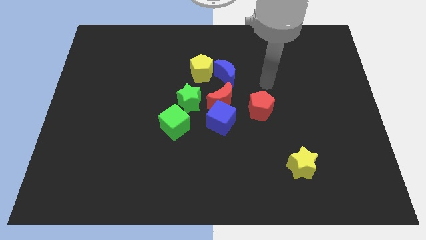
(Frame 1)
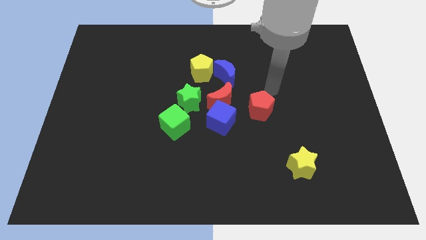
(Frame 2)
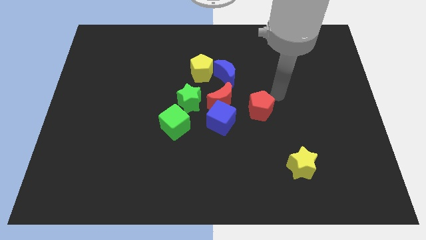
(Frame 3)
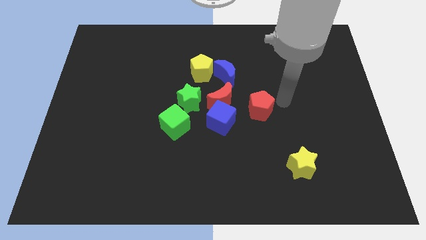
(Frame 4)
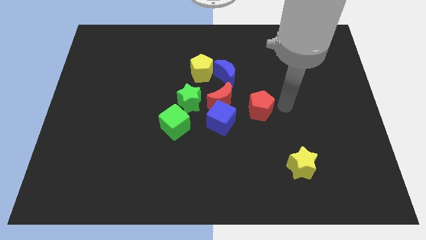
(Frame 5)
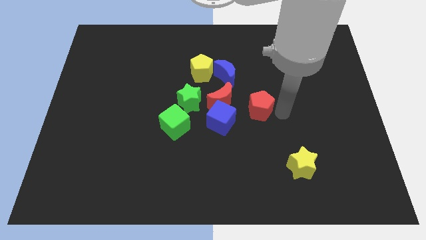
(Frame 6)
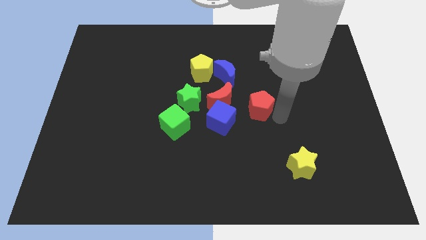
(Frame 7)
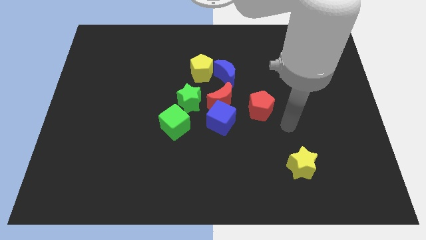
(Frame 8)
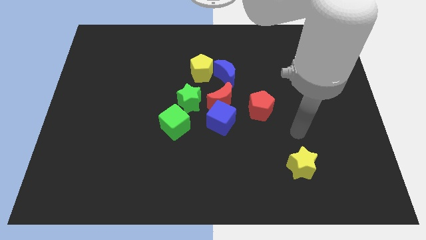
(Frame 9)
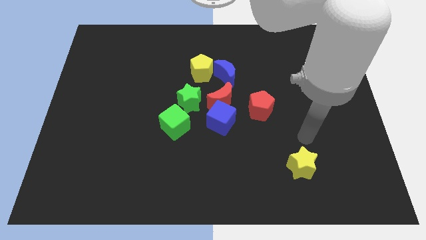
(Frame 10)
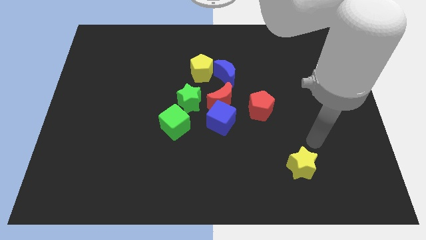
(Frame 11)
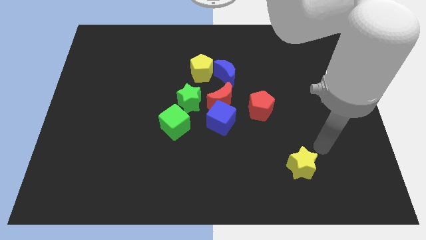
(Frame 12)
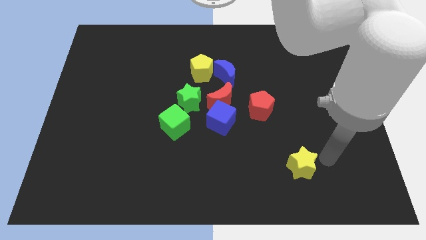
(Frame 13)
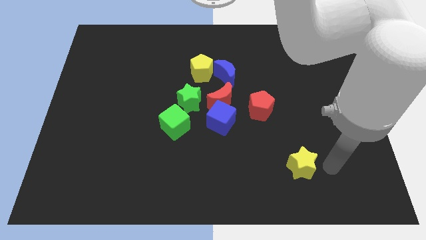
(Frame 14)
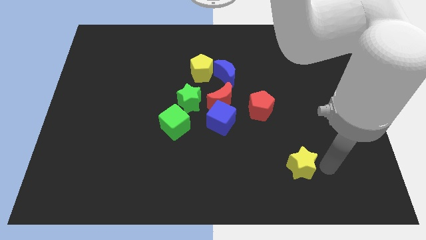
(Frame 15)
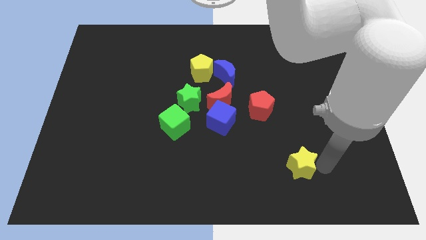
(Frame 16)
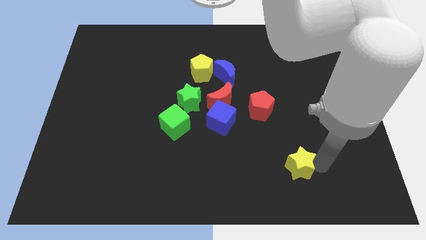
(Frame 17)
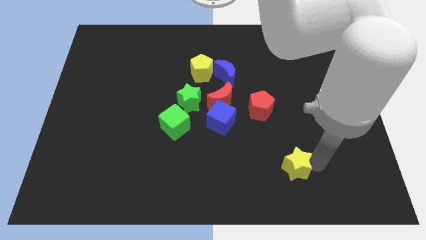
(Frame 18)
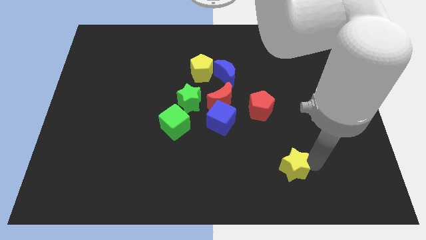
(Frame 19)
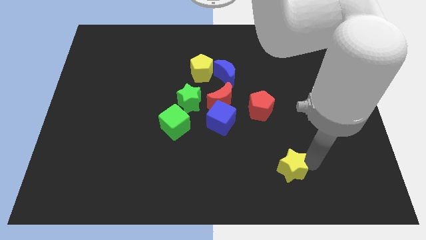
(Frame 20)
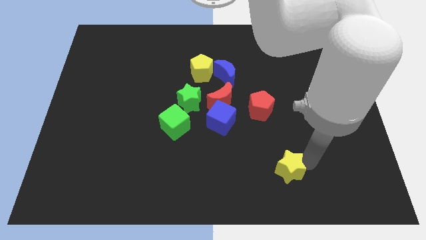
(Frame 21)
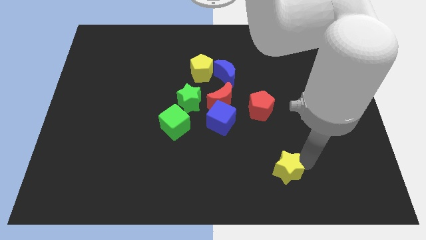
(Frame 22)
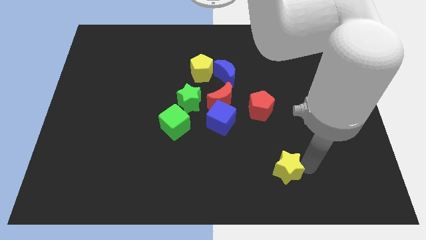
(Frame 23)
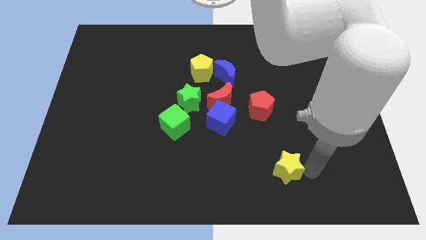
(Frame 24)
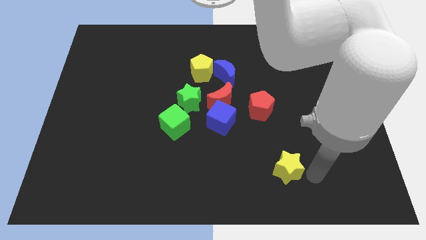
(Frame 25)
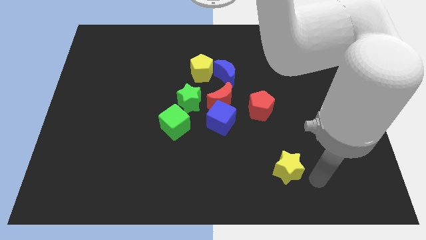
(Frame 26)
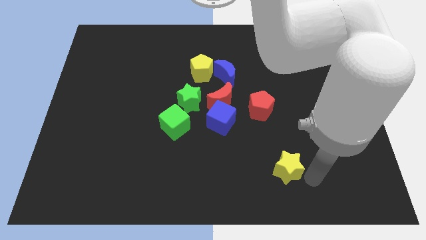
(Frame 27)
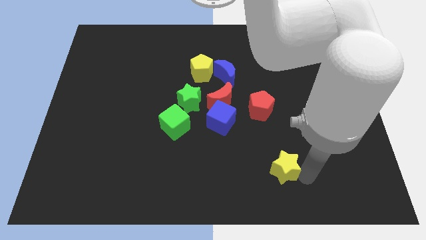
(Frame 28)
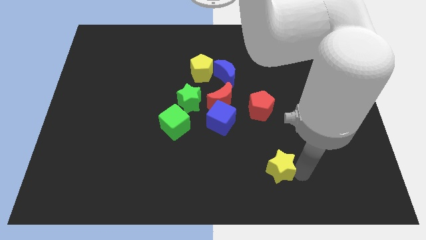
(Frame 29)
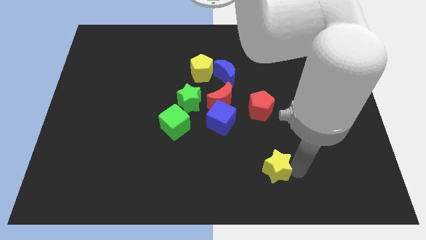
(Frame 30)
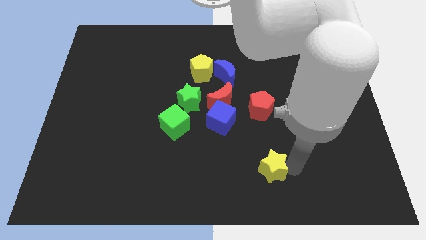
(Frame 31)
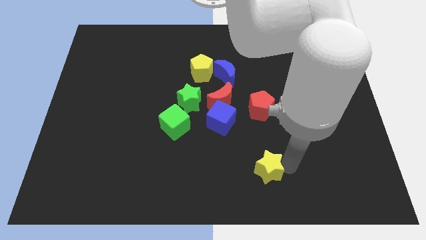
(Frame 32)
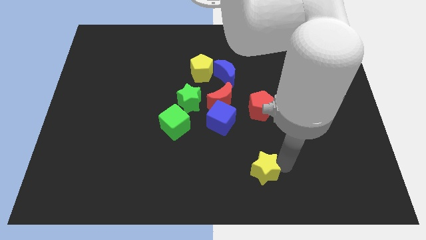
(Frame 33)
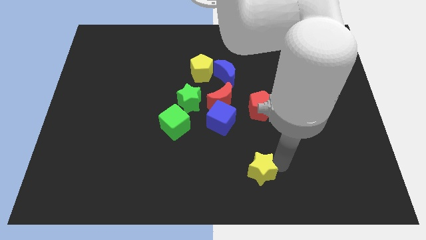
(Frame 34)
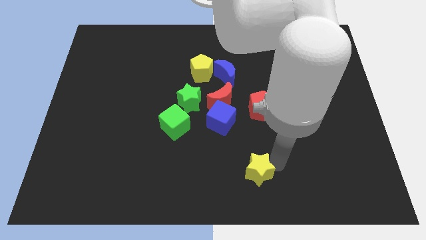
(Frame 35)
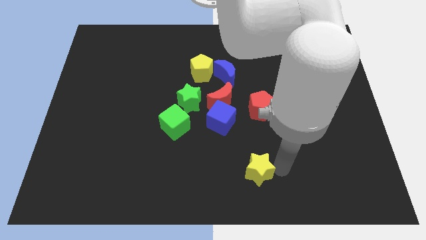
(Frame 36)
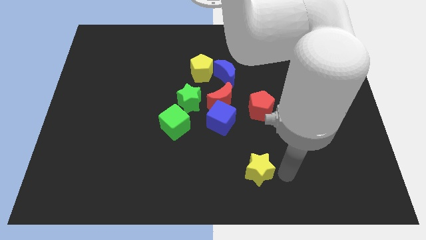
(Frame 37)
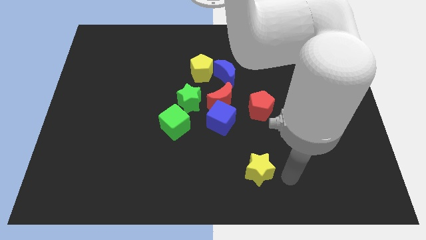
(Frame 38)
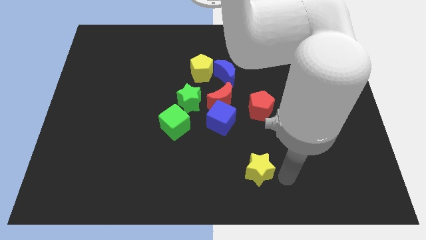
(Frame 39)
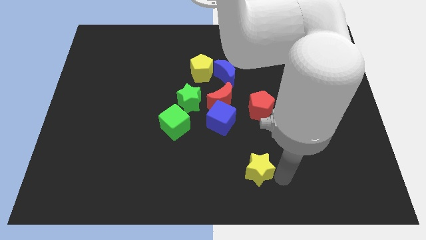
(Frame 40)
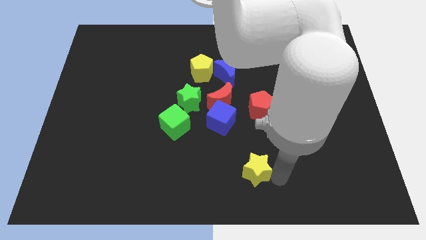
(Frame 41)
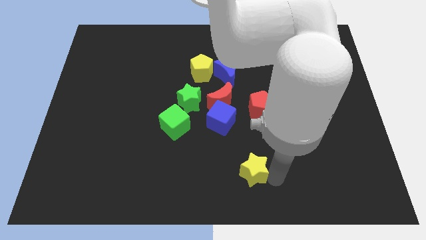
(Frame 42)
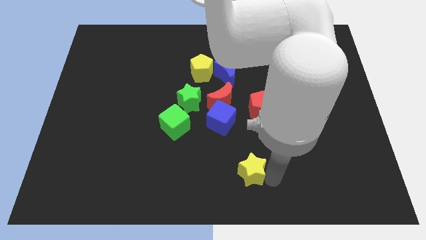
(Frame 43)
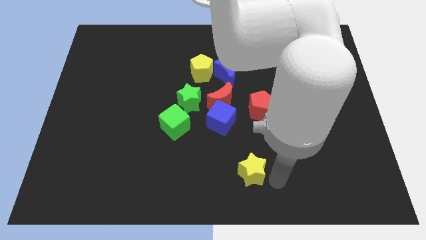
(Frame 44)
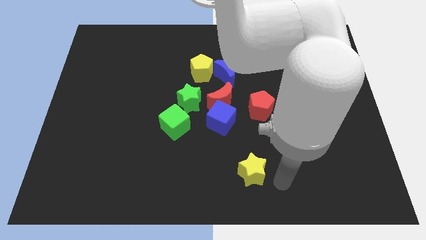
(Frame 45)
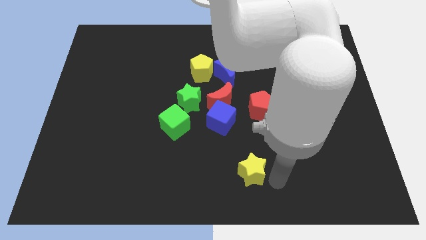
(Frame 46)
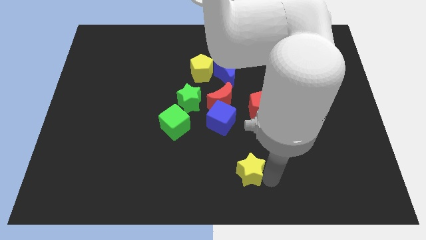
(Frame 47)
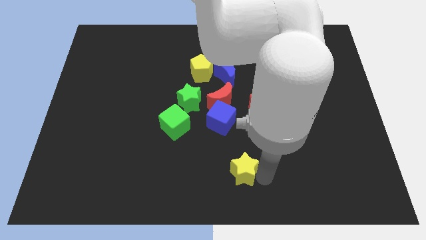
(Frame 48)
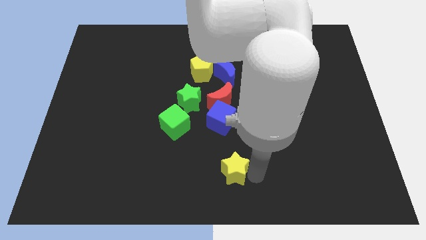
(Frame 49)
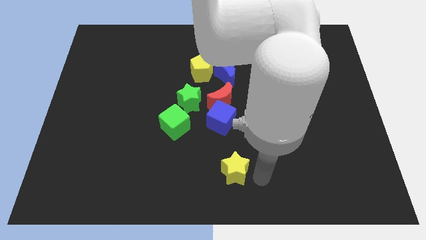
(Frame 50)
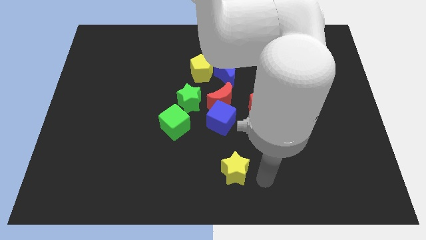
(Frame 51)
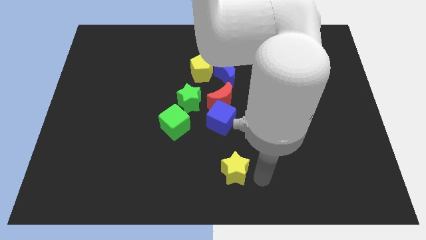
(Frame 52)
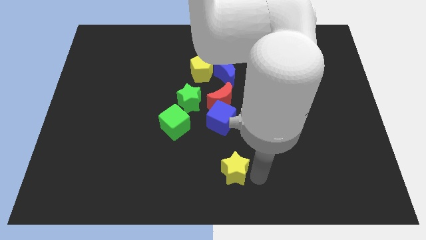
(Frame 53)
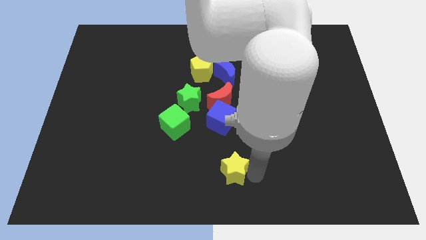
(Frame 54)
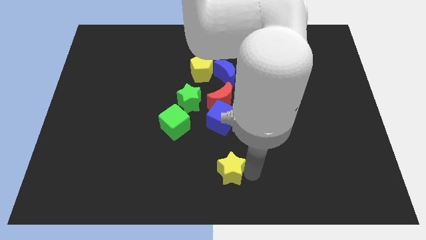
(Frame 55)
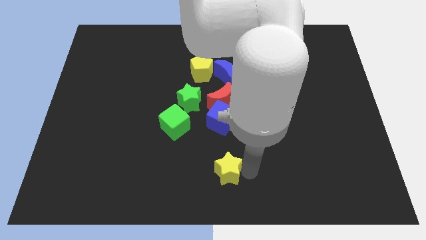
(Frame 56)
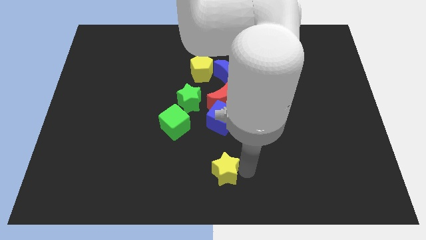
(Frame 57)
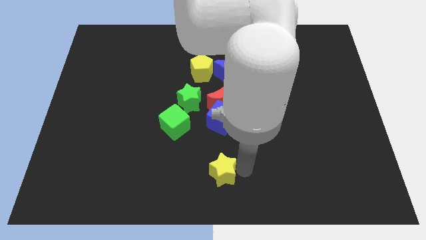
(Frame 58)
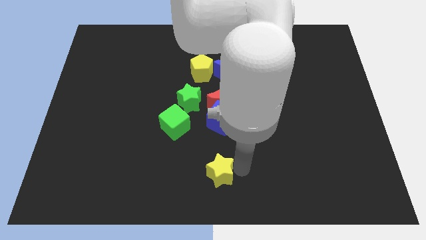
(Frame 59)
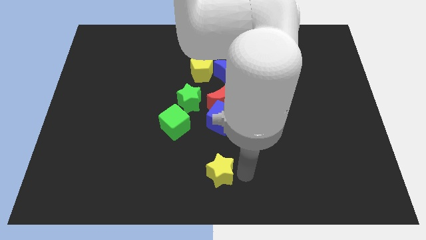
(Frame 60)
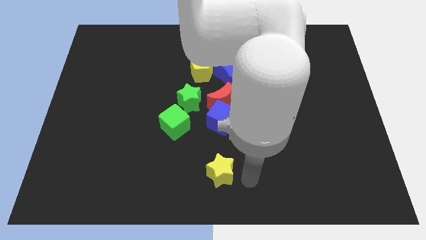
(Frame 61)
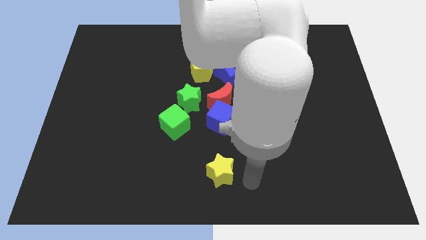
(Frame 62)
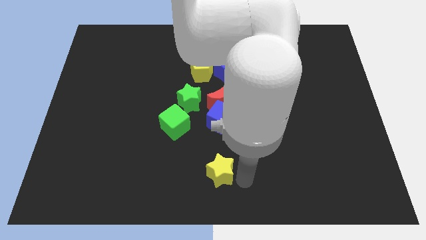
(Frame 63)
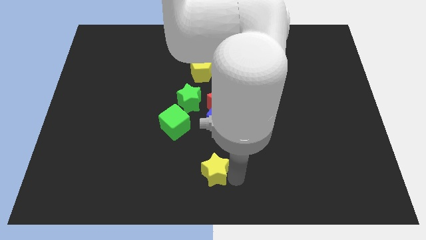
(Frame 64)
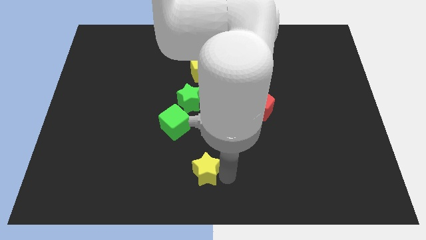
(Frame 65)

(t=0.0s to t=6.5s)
move the yellow star left

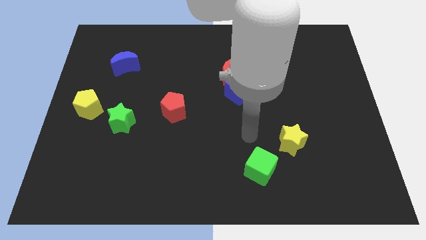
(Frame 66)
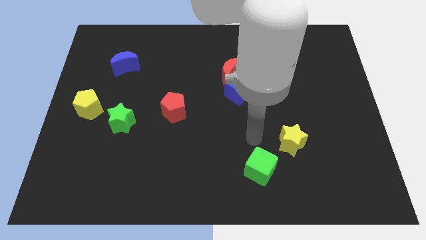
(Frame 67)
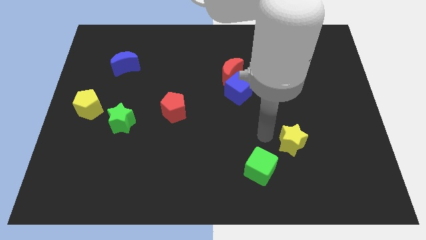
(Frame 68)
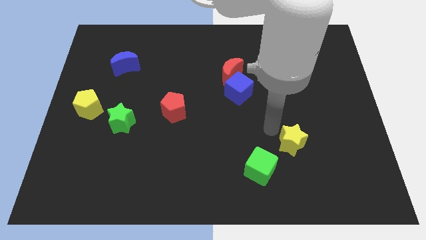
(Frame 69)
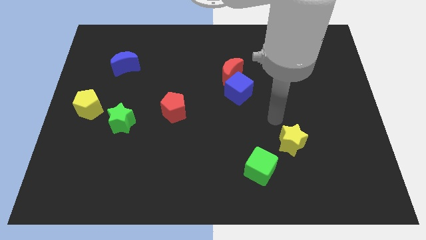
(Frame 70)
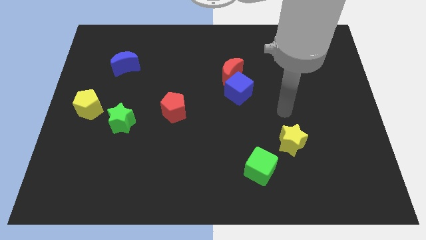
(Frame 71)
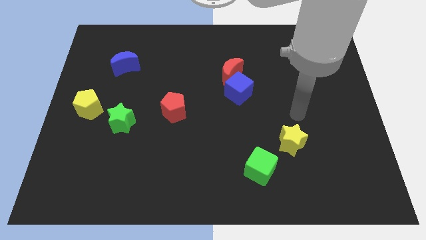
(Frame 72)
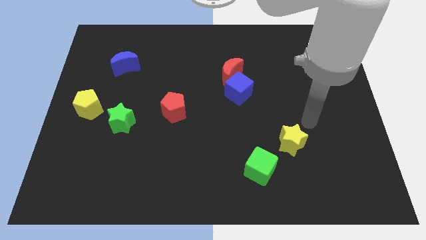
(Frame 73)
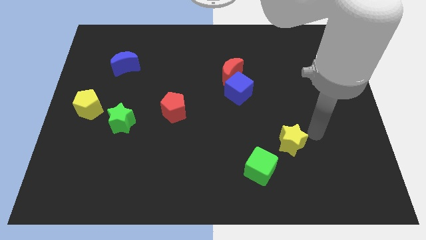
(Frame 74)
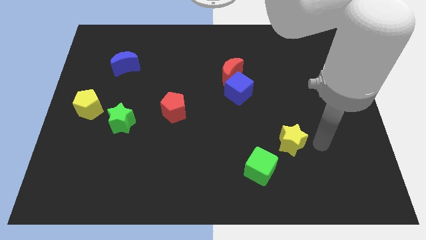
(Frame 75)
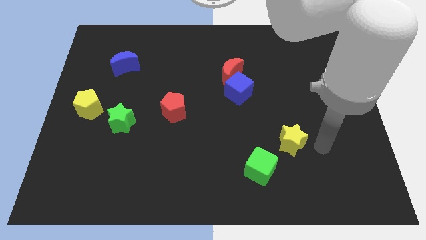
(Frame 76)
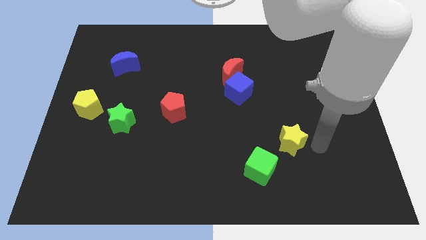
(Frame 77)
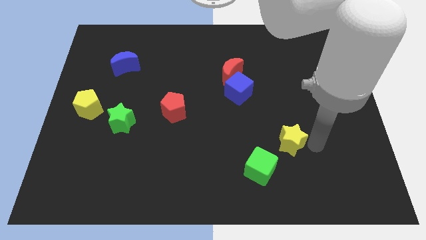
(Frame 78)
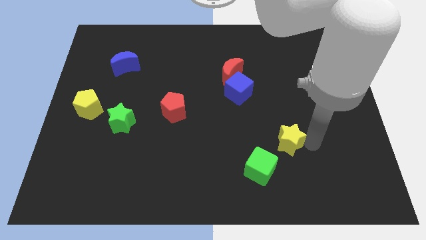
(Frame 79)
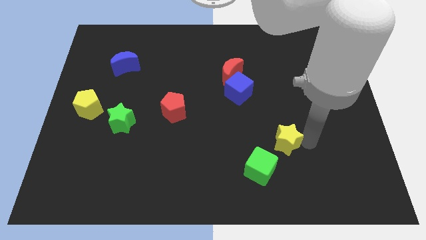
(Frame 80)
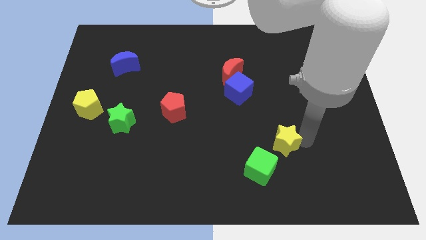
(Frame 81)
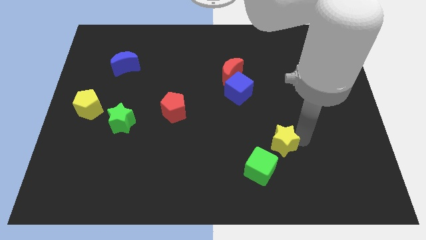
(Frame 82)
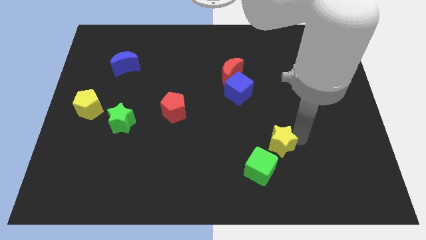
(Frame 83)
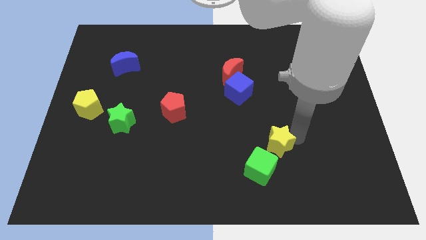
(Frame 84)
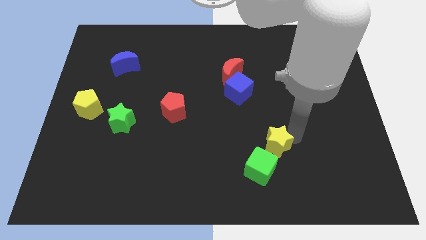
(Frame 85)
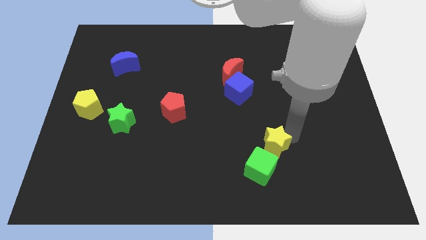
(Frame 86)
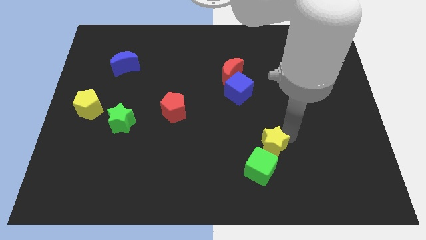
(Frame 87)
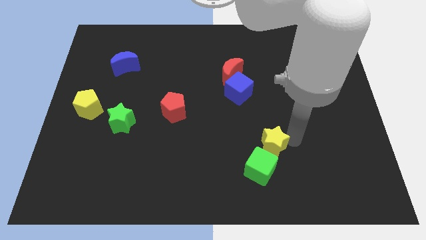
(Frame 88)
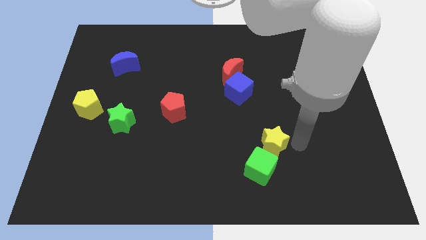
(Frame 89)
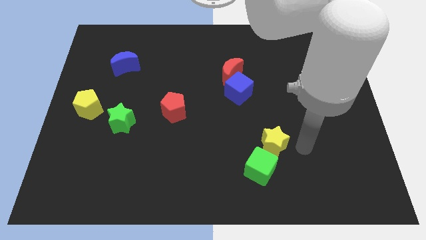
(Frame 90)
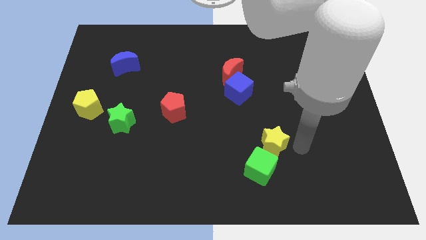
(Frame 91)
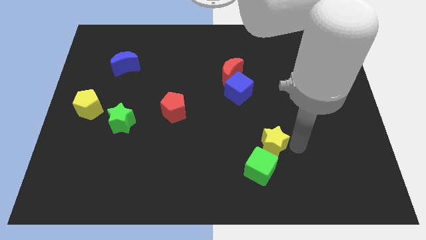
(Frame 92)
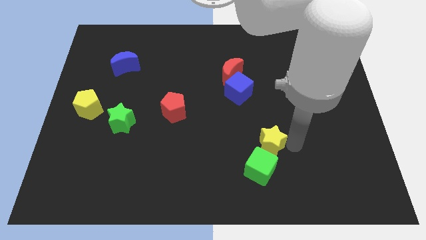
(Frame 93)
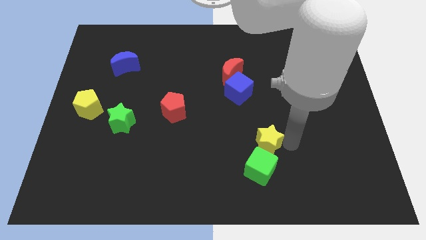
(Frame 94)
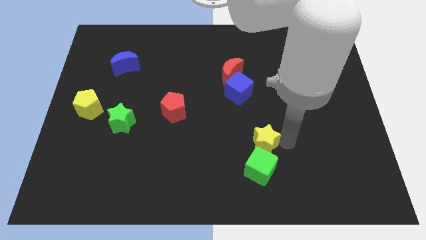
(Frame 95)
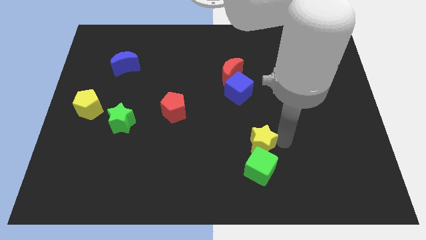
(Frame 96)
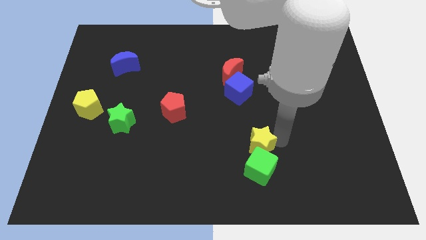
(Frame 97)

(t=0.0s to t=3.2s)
slide the yellow star left a little
